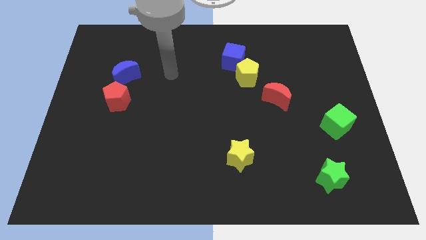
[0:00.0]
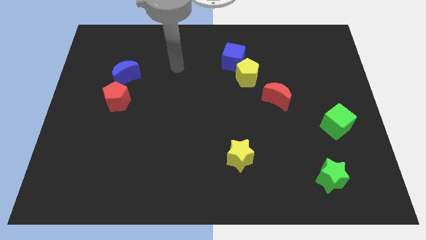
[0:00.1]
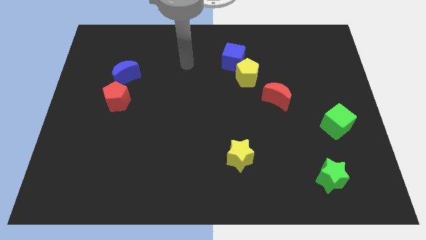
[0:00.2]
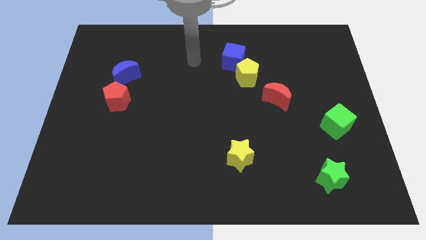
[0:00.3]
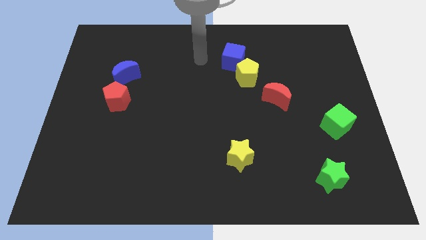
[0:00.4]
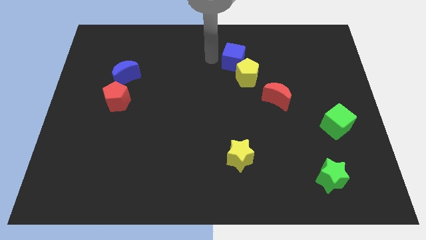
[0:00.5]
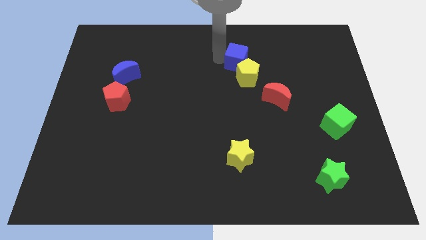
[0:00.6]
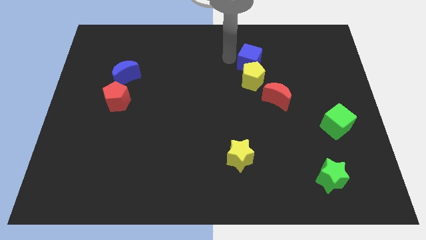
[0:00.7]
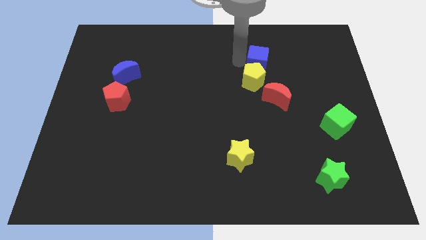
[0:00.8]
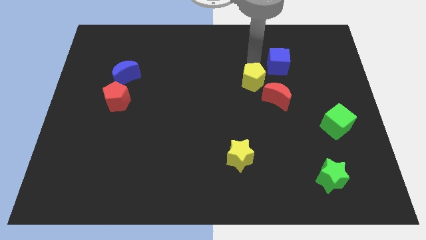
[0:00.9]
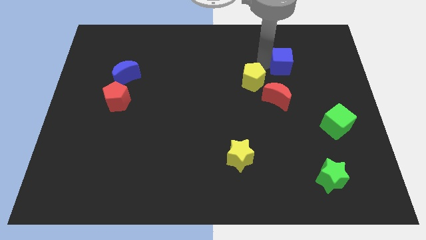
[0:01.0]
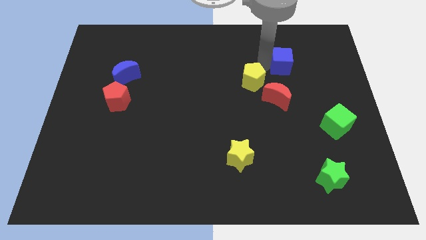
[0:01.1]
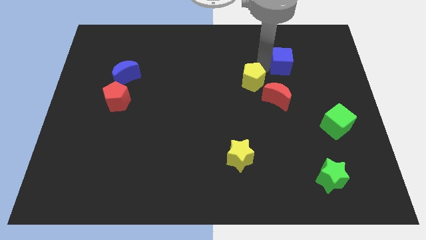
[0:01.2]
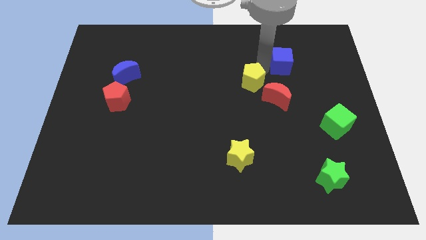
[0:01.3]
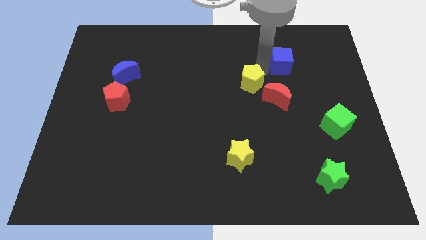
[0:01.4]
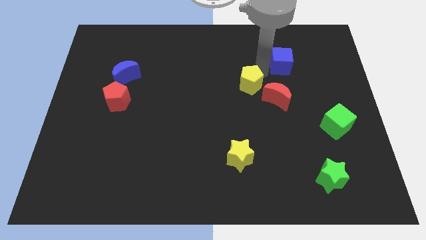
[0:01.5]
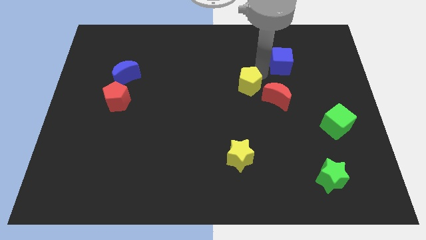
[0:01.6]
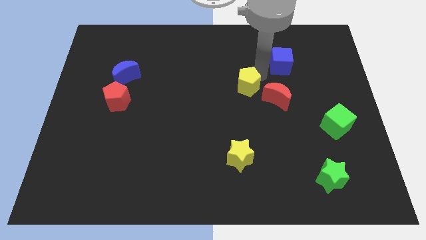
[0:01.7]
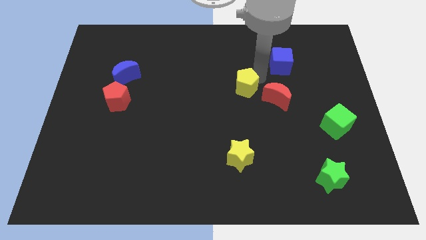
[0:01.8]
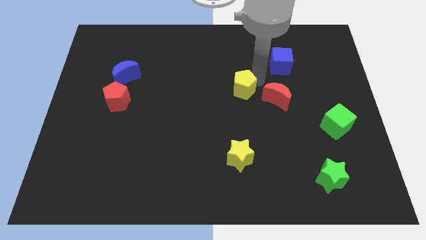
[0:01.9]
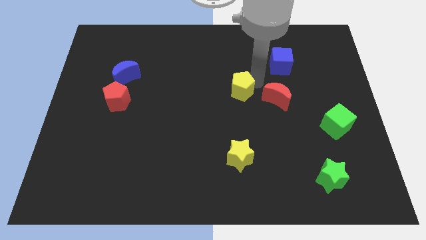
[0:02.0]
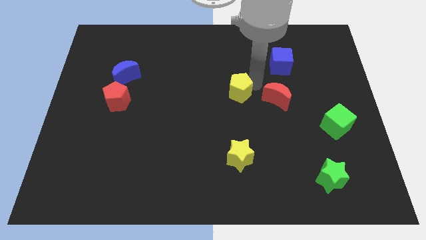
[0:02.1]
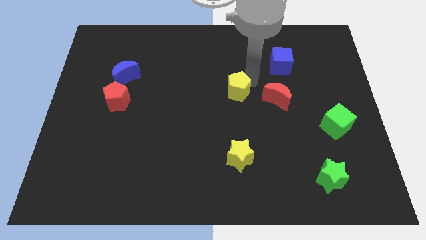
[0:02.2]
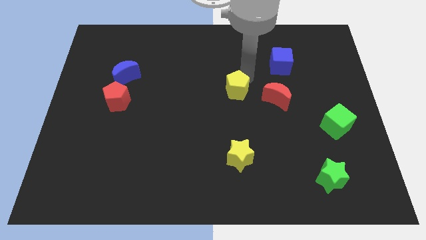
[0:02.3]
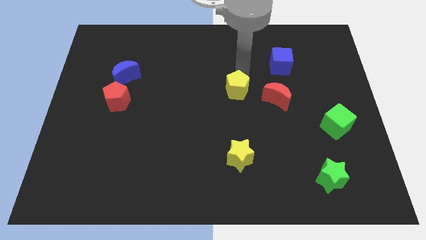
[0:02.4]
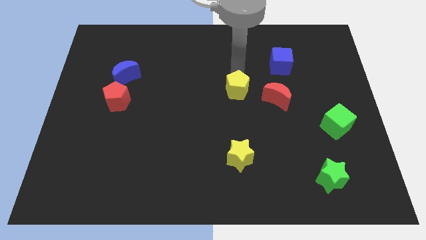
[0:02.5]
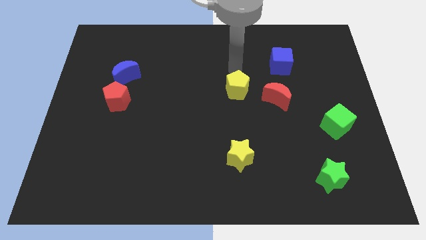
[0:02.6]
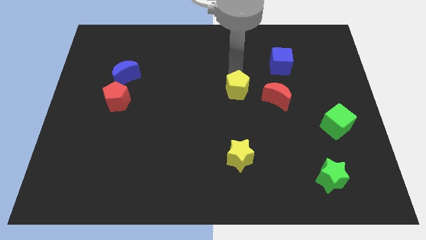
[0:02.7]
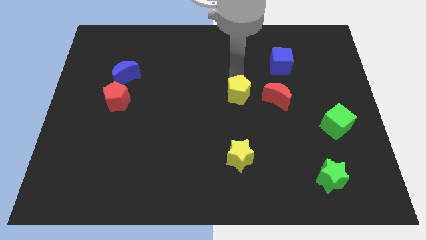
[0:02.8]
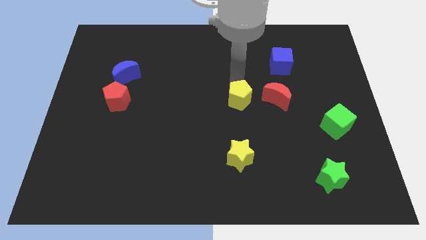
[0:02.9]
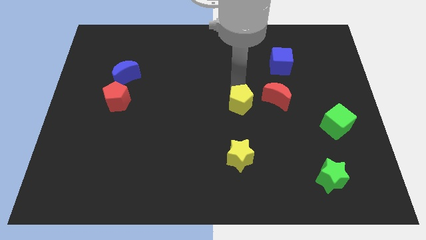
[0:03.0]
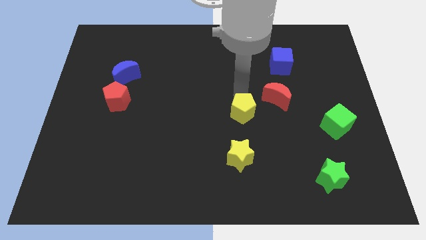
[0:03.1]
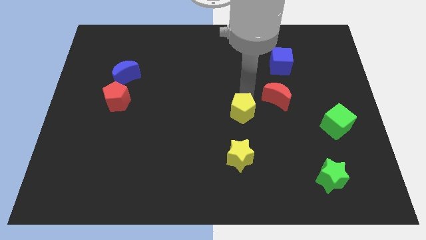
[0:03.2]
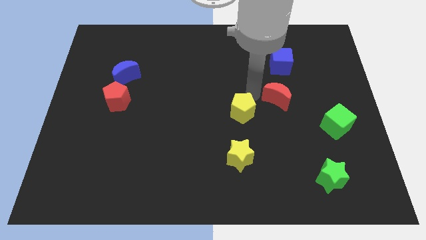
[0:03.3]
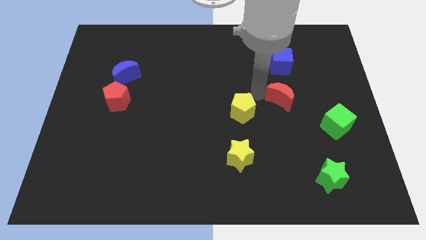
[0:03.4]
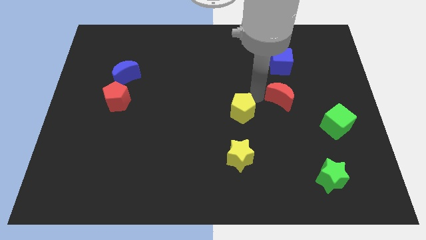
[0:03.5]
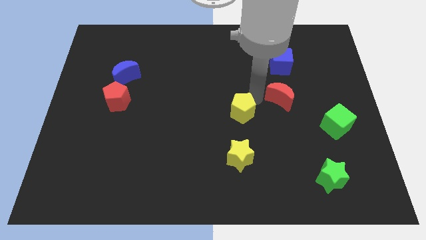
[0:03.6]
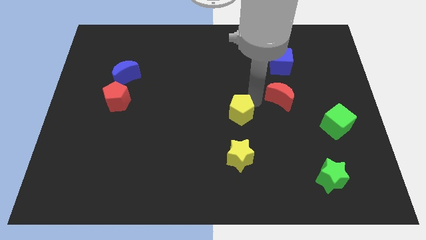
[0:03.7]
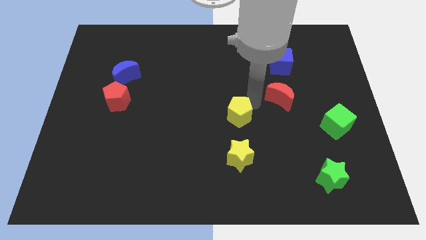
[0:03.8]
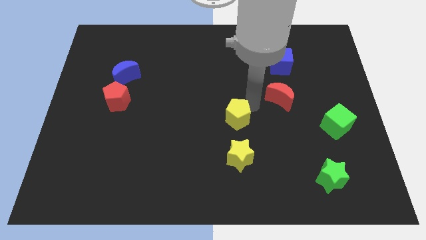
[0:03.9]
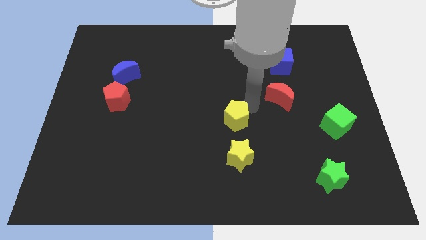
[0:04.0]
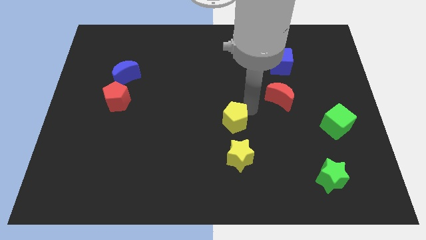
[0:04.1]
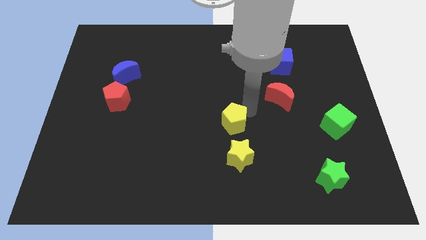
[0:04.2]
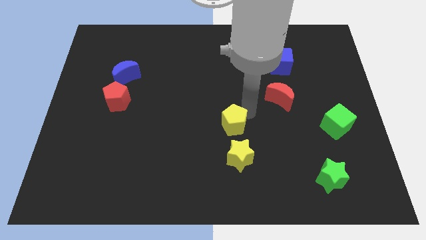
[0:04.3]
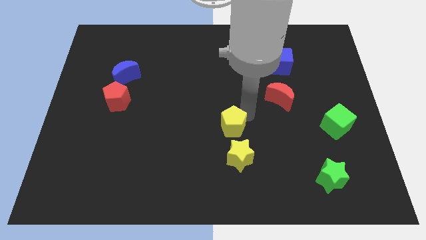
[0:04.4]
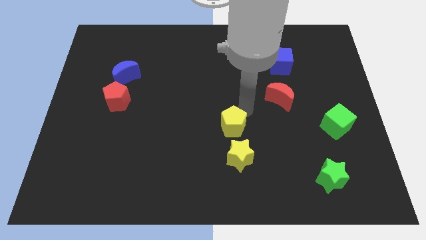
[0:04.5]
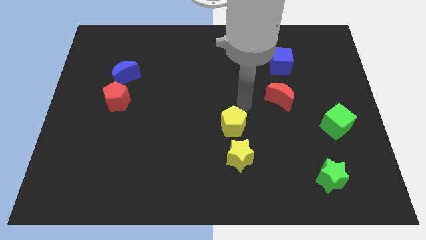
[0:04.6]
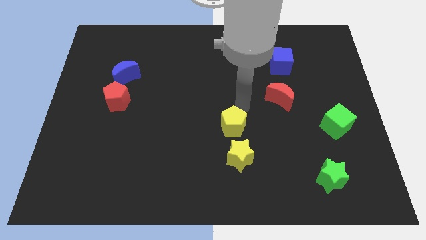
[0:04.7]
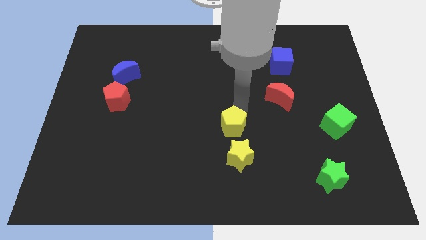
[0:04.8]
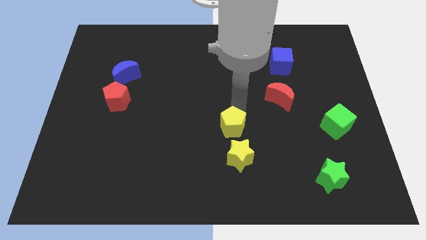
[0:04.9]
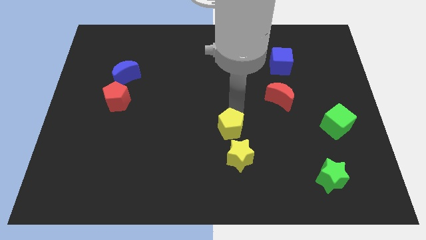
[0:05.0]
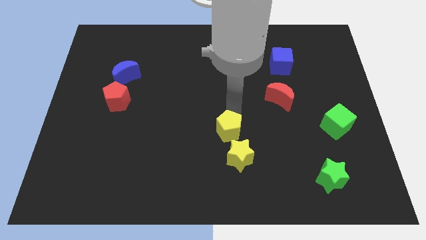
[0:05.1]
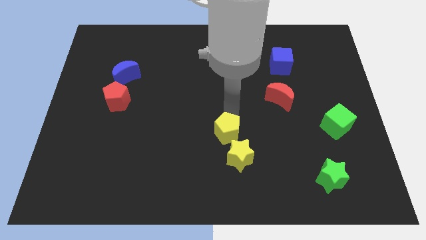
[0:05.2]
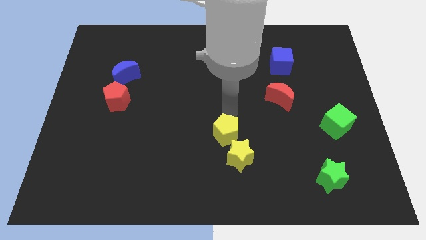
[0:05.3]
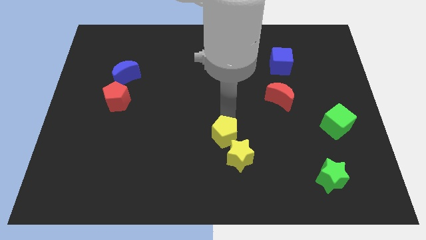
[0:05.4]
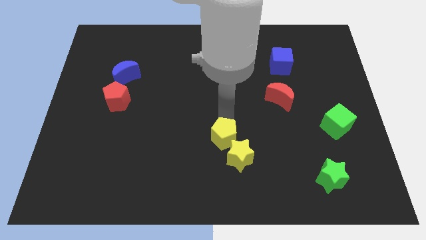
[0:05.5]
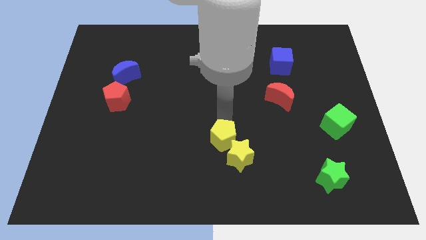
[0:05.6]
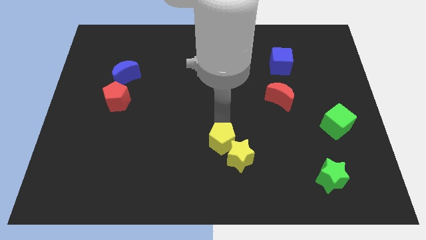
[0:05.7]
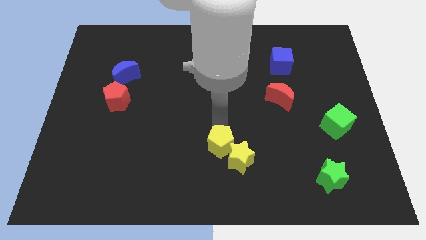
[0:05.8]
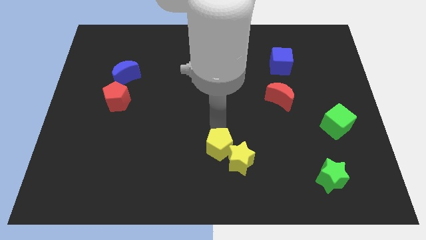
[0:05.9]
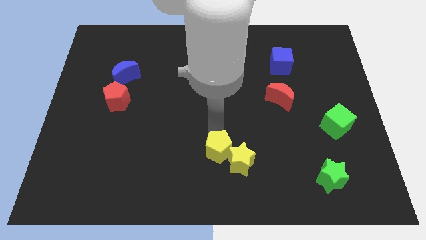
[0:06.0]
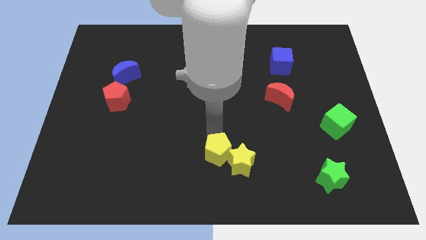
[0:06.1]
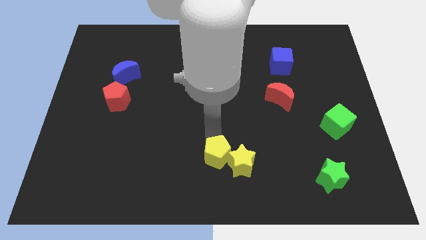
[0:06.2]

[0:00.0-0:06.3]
push the yellow pentagon to the bottom side

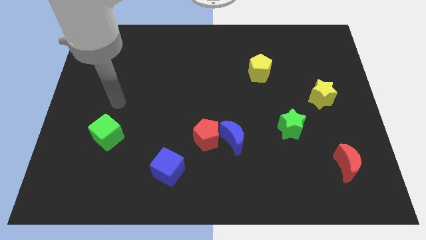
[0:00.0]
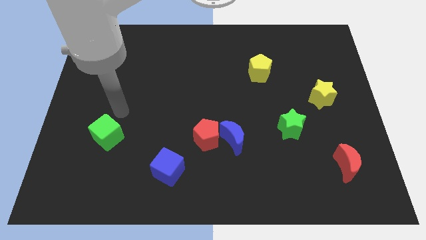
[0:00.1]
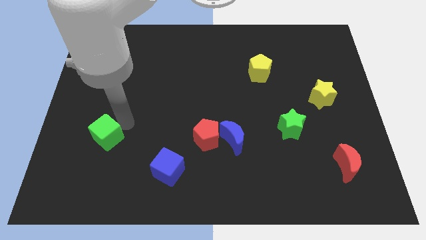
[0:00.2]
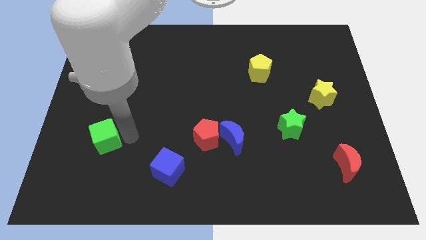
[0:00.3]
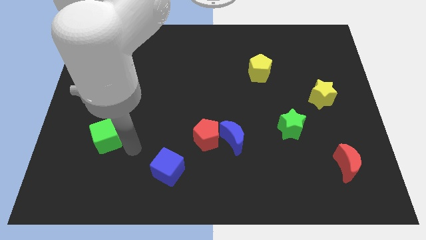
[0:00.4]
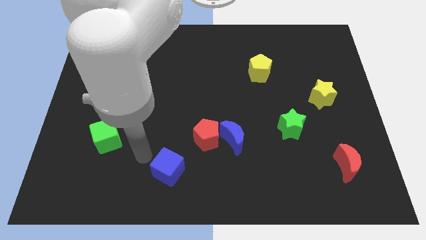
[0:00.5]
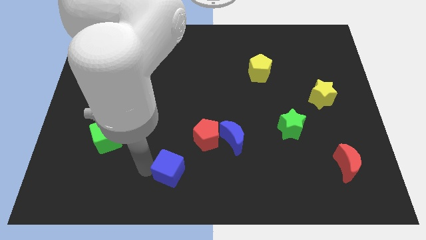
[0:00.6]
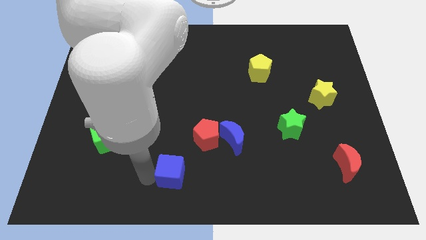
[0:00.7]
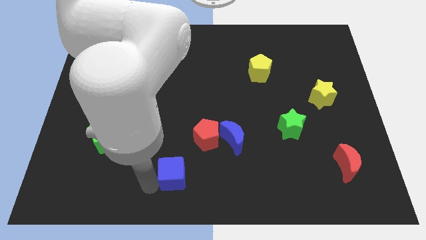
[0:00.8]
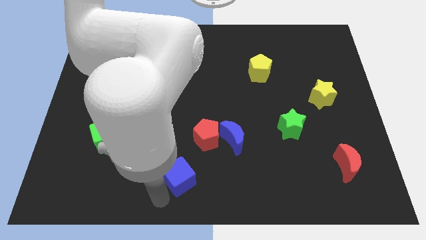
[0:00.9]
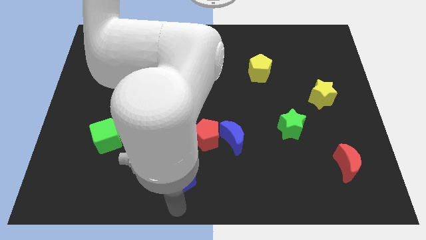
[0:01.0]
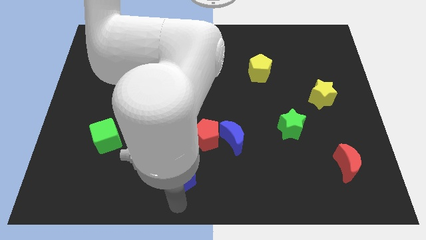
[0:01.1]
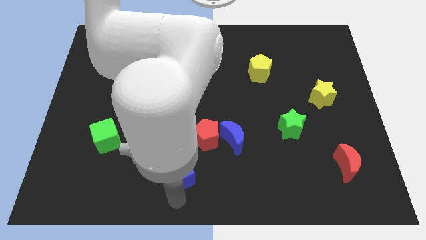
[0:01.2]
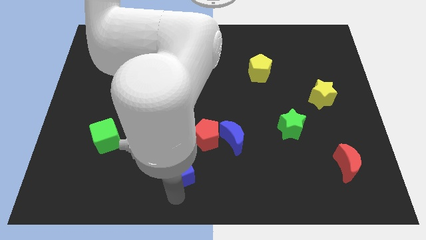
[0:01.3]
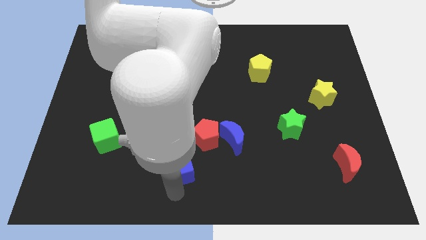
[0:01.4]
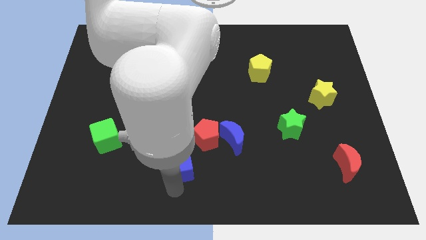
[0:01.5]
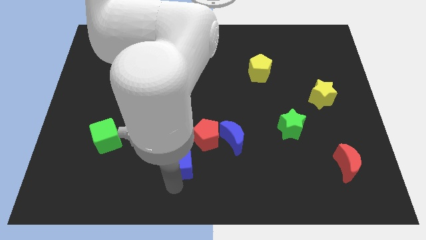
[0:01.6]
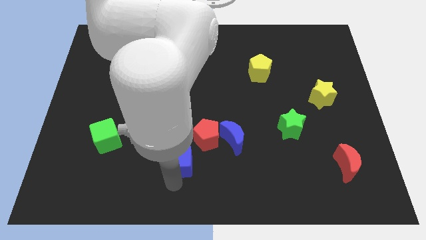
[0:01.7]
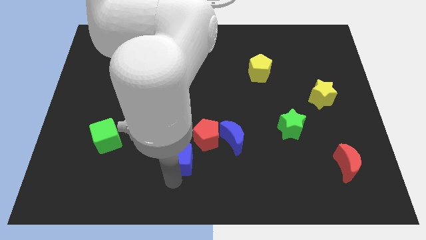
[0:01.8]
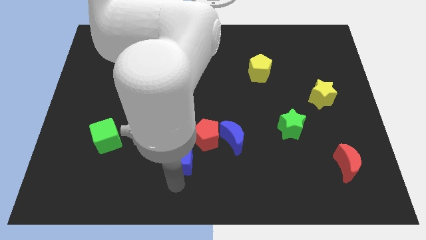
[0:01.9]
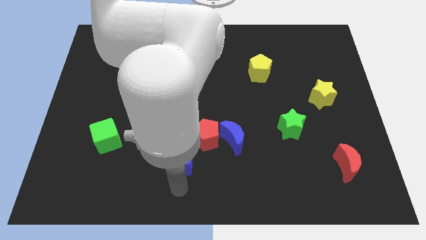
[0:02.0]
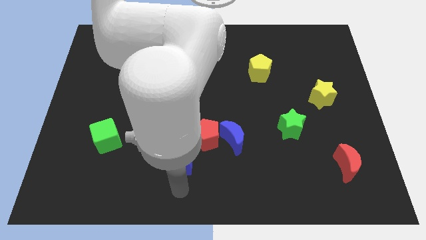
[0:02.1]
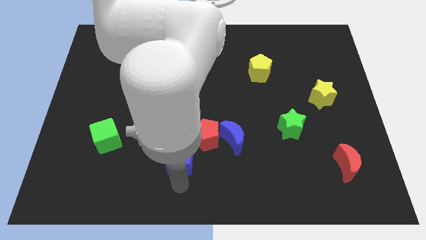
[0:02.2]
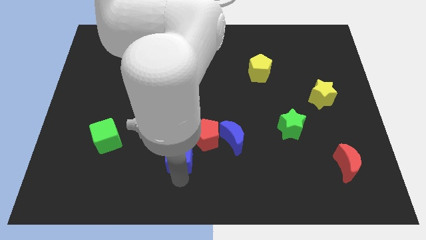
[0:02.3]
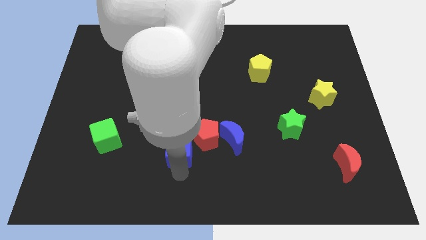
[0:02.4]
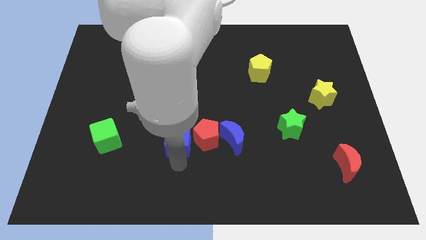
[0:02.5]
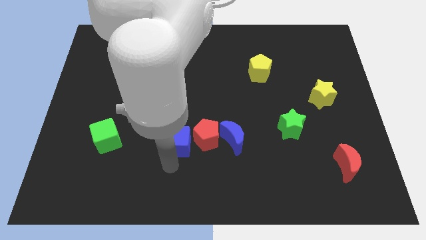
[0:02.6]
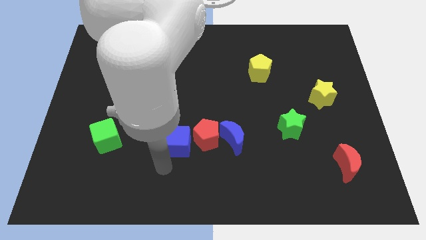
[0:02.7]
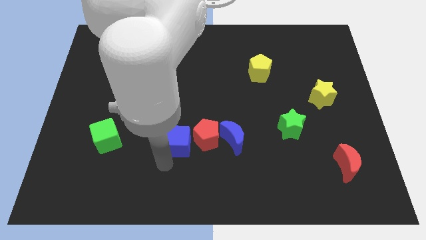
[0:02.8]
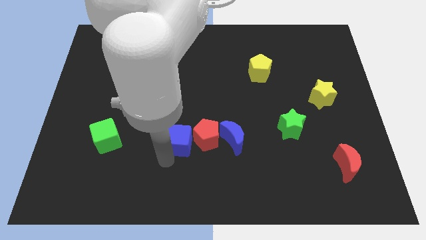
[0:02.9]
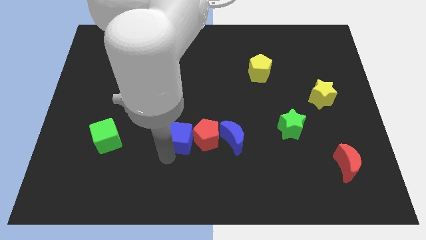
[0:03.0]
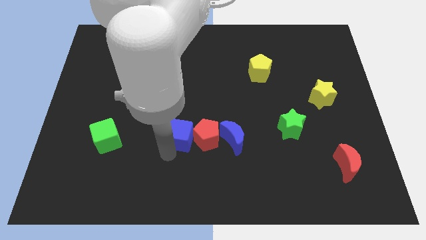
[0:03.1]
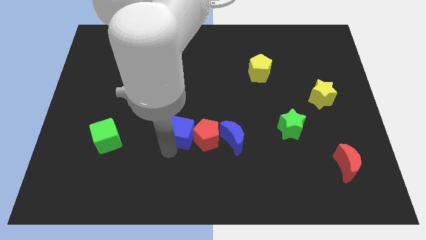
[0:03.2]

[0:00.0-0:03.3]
push the blue cube to the center of the board
